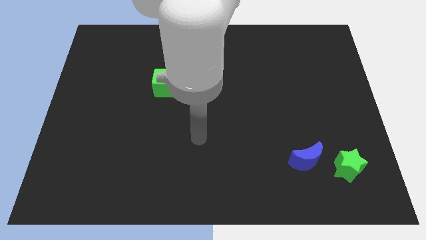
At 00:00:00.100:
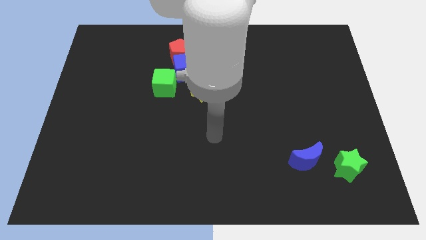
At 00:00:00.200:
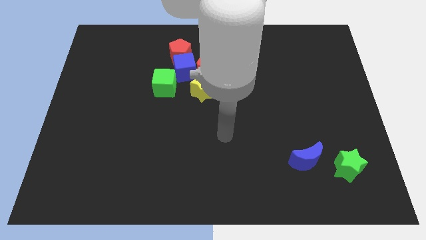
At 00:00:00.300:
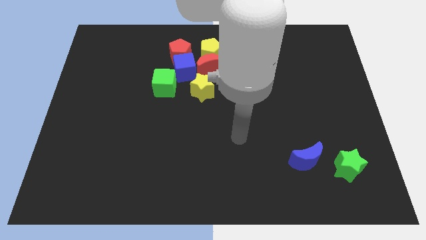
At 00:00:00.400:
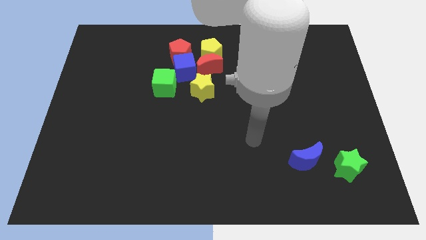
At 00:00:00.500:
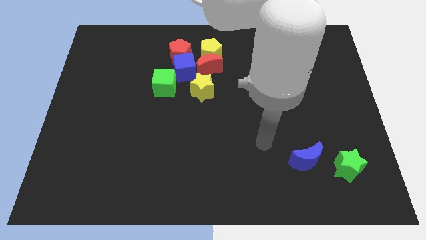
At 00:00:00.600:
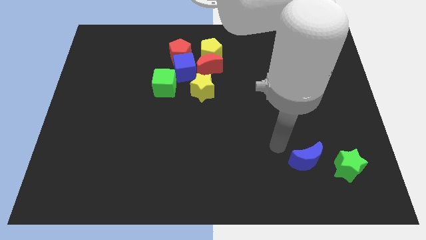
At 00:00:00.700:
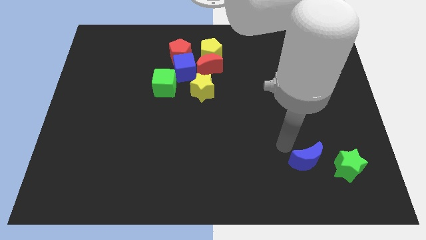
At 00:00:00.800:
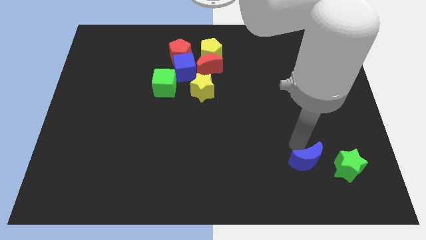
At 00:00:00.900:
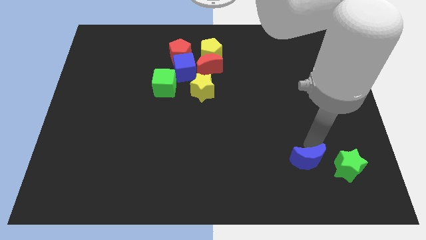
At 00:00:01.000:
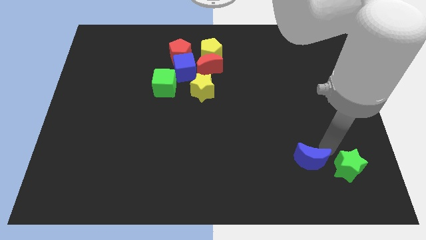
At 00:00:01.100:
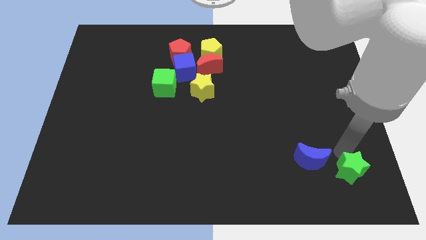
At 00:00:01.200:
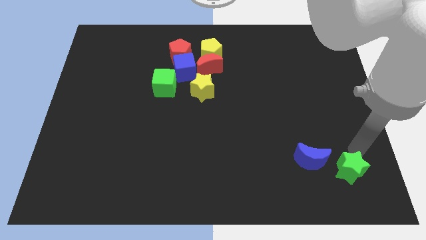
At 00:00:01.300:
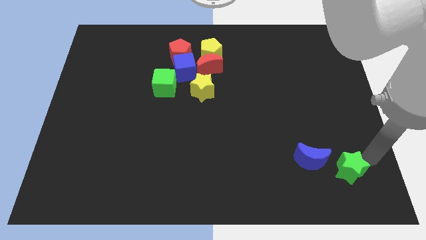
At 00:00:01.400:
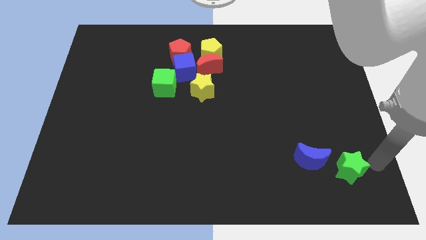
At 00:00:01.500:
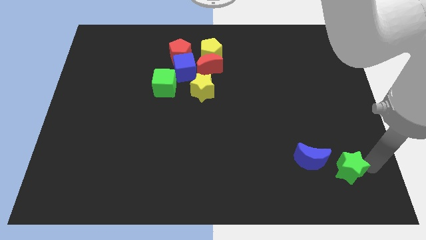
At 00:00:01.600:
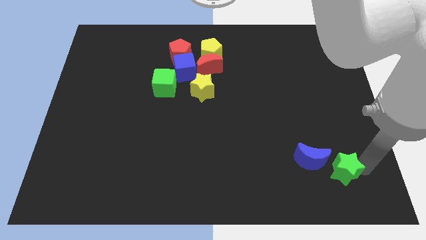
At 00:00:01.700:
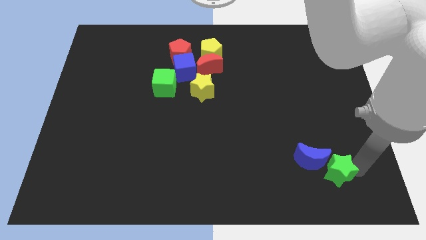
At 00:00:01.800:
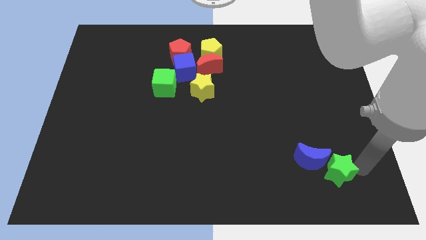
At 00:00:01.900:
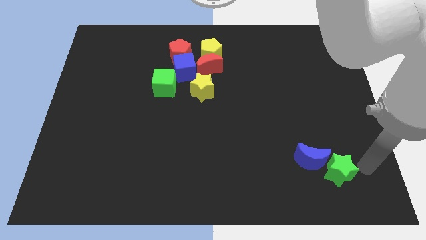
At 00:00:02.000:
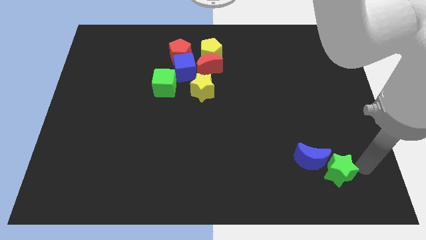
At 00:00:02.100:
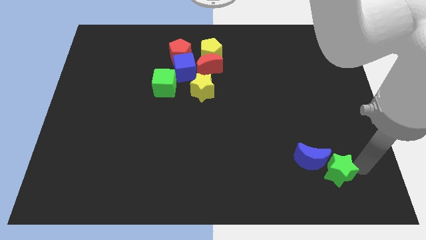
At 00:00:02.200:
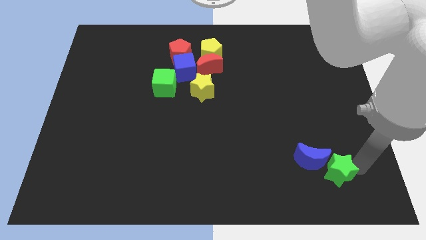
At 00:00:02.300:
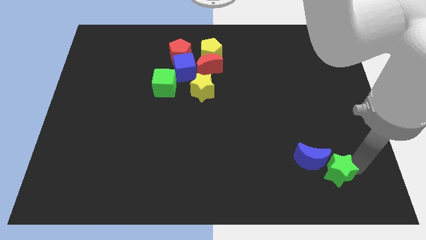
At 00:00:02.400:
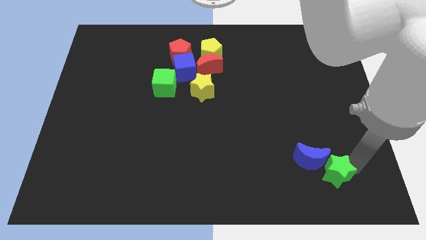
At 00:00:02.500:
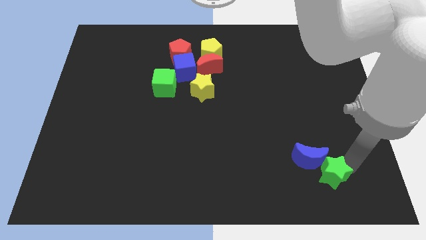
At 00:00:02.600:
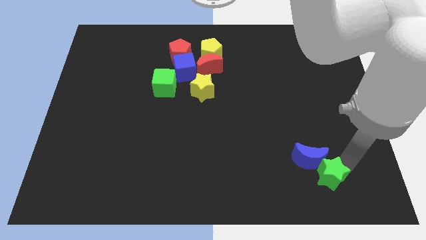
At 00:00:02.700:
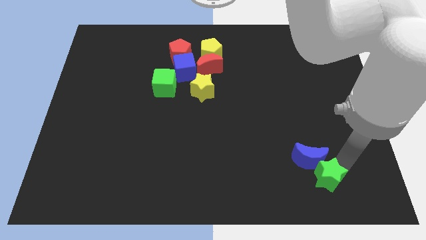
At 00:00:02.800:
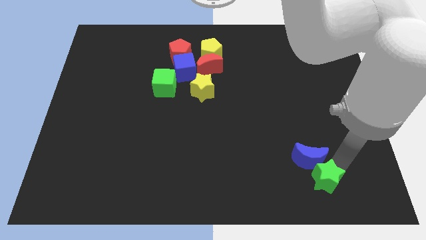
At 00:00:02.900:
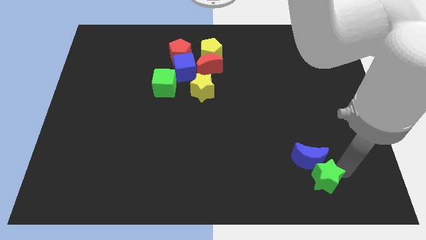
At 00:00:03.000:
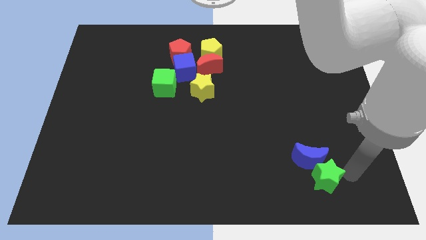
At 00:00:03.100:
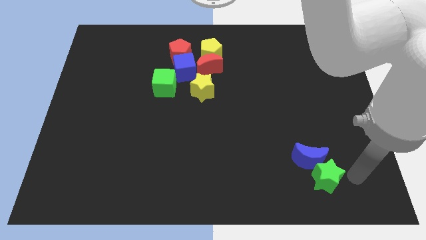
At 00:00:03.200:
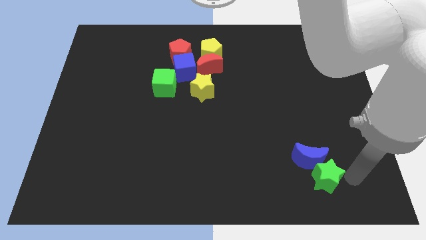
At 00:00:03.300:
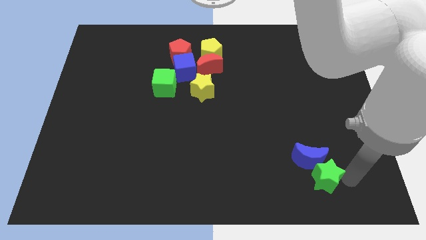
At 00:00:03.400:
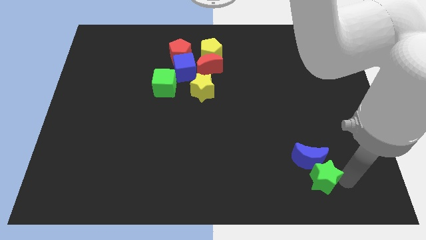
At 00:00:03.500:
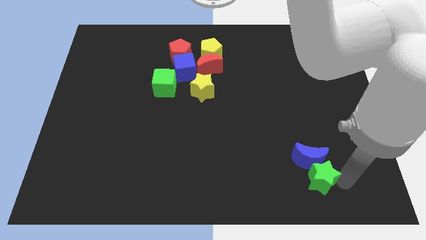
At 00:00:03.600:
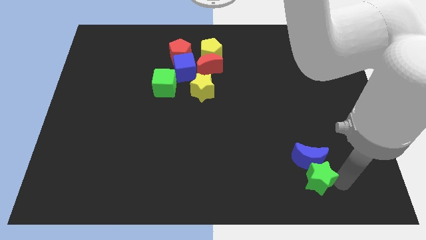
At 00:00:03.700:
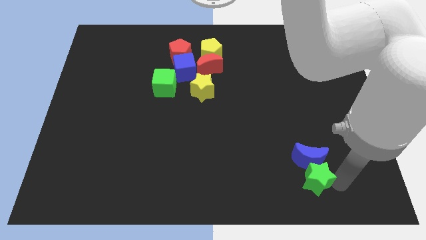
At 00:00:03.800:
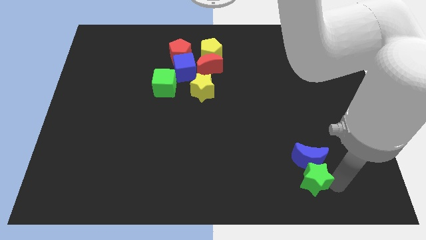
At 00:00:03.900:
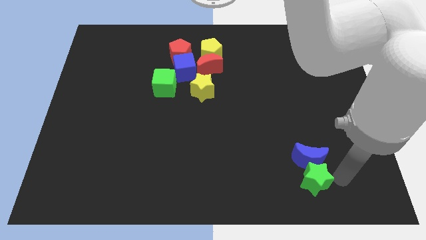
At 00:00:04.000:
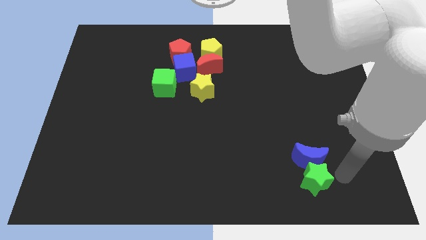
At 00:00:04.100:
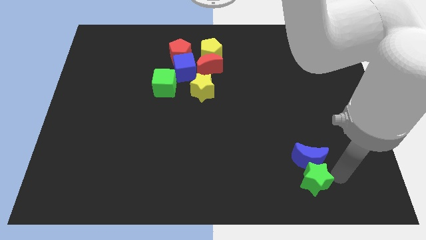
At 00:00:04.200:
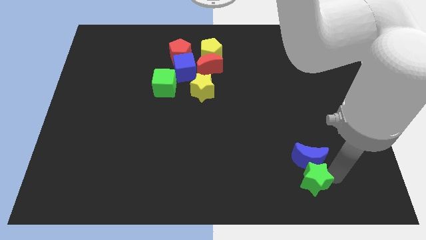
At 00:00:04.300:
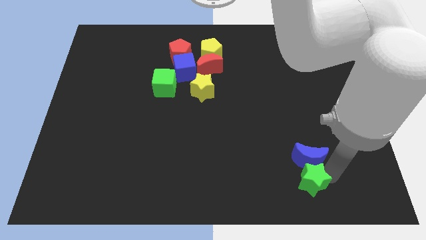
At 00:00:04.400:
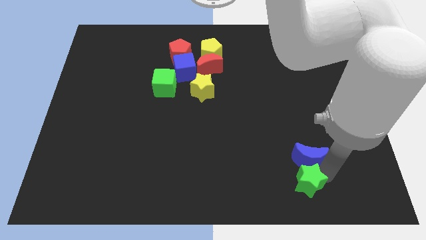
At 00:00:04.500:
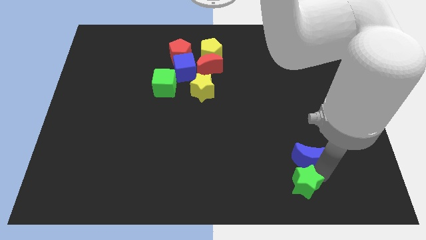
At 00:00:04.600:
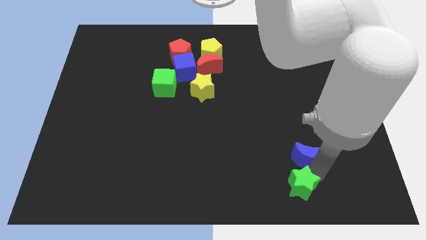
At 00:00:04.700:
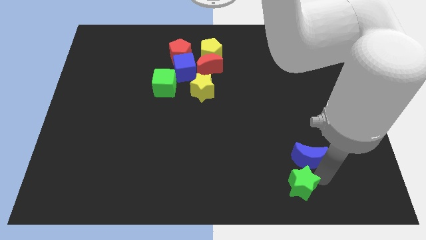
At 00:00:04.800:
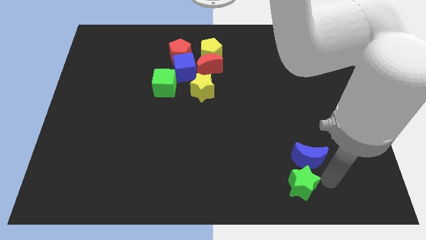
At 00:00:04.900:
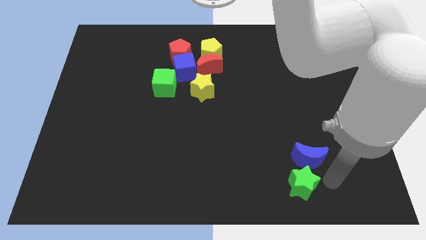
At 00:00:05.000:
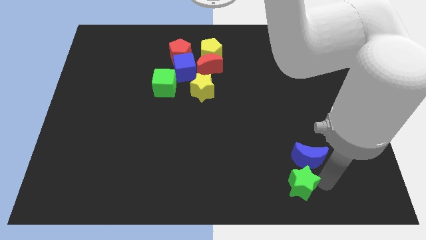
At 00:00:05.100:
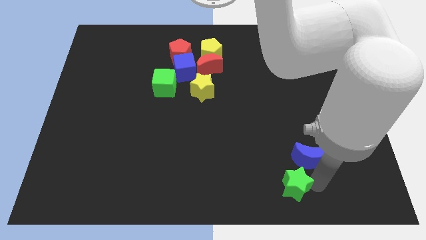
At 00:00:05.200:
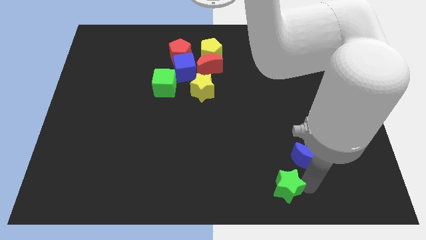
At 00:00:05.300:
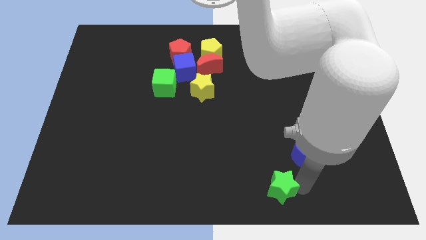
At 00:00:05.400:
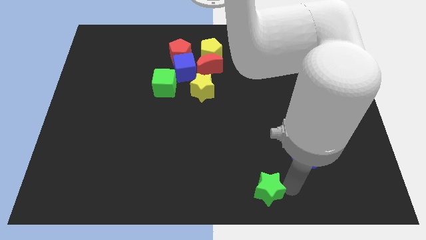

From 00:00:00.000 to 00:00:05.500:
put the green star to the bottom

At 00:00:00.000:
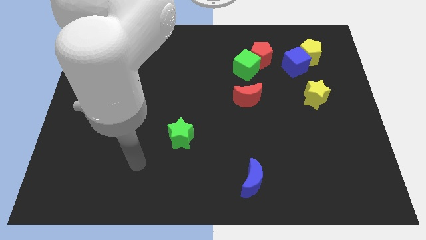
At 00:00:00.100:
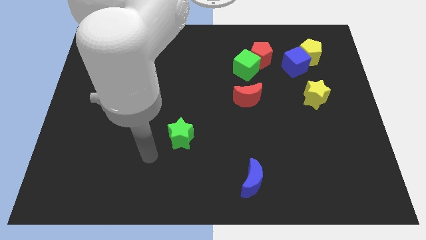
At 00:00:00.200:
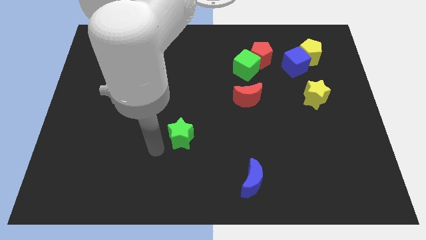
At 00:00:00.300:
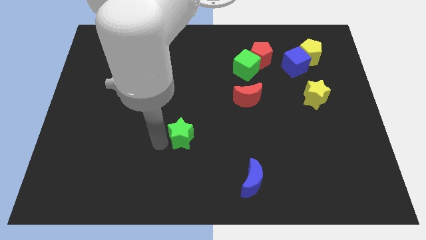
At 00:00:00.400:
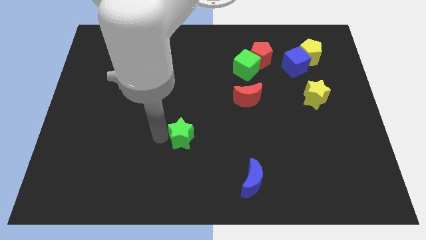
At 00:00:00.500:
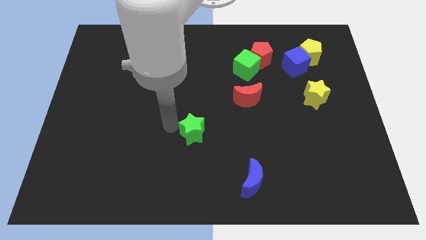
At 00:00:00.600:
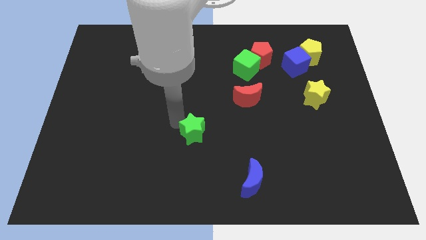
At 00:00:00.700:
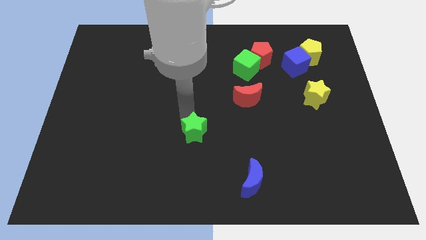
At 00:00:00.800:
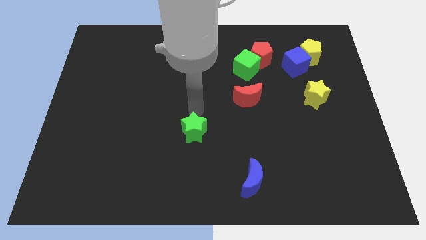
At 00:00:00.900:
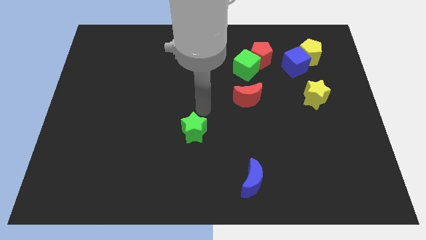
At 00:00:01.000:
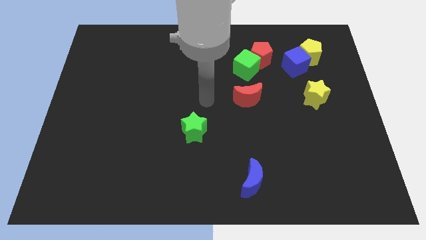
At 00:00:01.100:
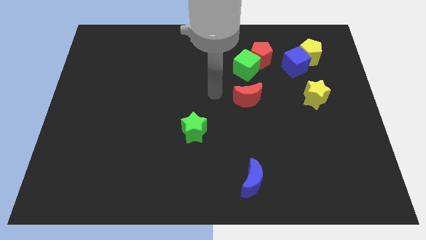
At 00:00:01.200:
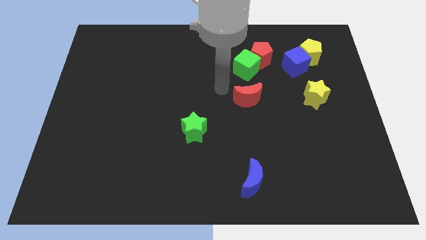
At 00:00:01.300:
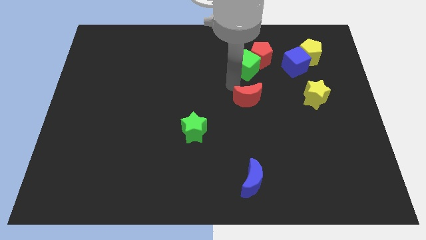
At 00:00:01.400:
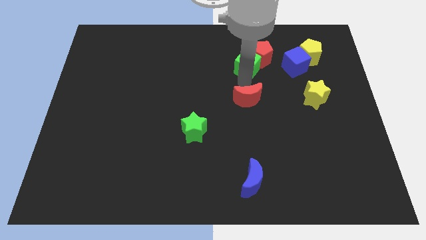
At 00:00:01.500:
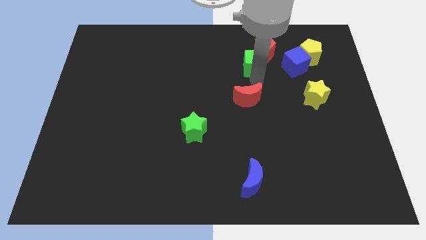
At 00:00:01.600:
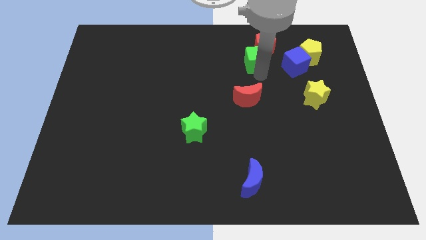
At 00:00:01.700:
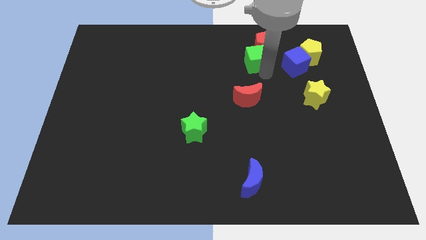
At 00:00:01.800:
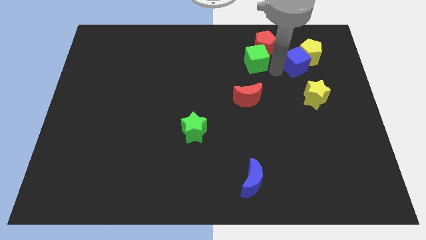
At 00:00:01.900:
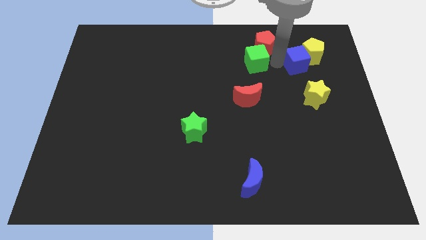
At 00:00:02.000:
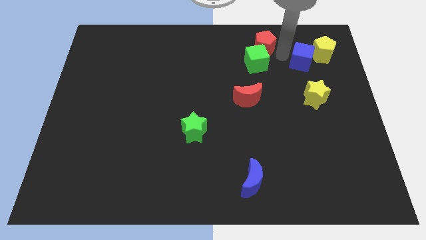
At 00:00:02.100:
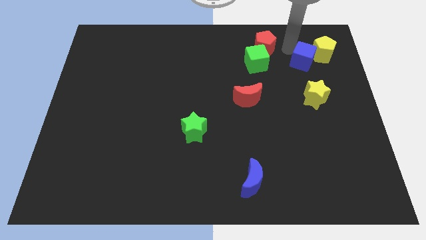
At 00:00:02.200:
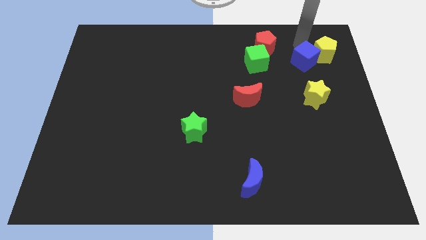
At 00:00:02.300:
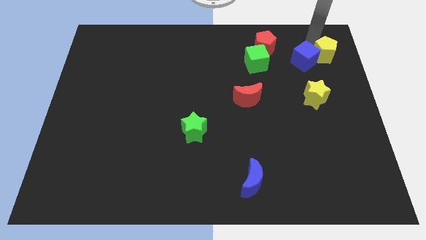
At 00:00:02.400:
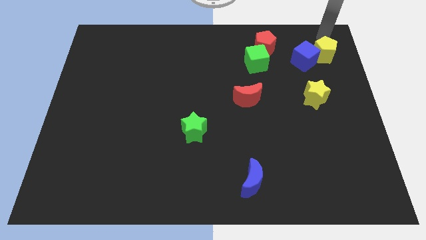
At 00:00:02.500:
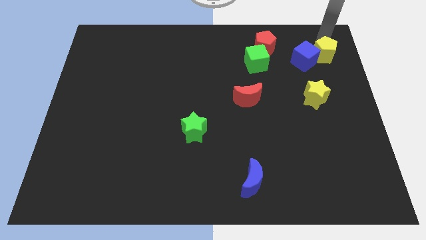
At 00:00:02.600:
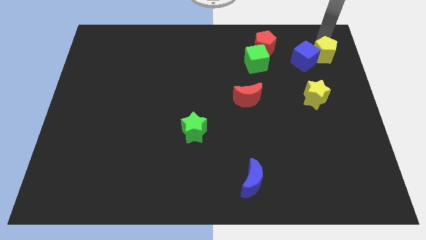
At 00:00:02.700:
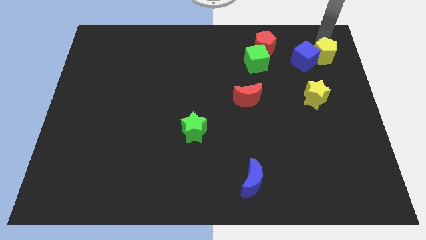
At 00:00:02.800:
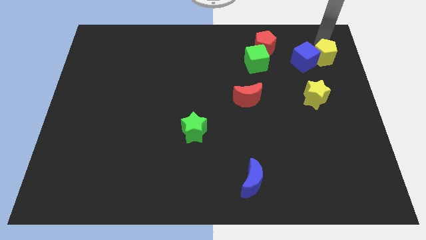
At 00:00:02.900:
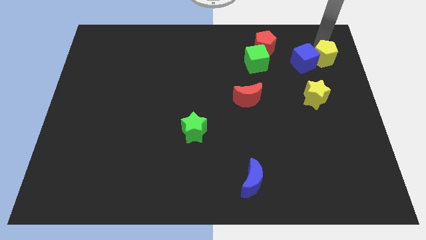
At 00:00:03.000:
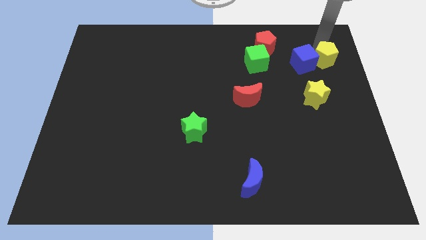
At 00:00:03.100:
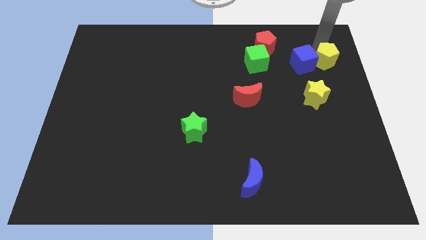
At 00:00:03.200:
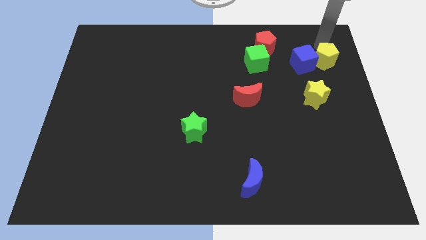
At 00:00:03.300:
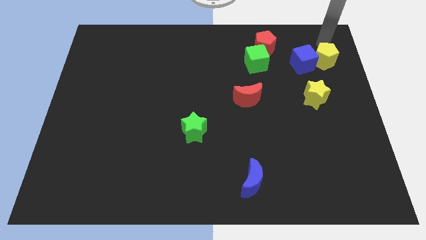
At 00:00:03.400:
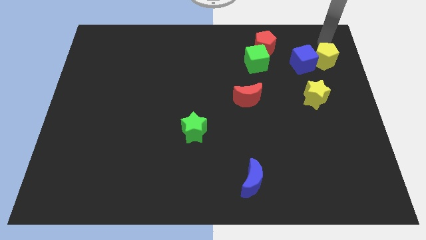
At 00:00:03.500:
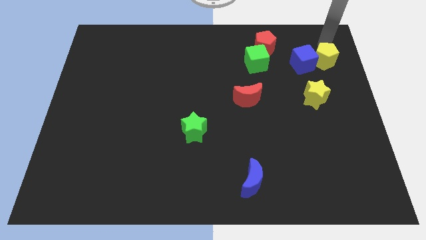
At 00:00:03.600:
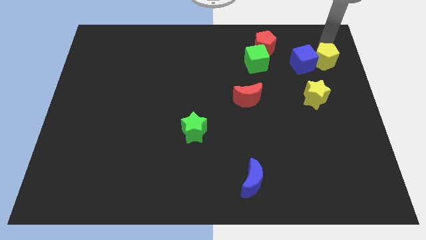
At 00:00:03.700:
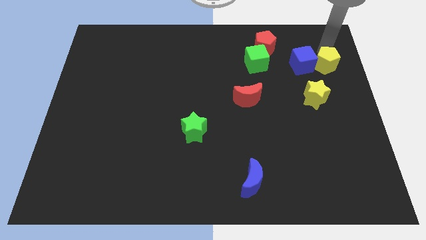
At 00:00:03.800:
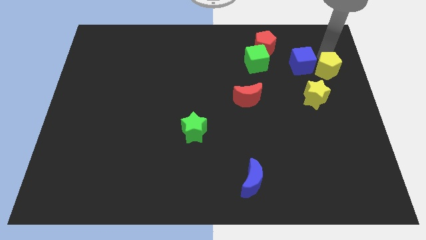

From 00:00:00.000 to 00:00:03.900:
put the yellow pentagon to the right side
